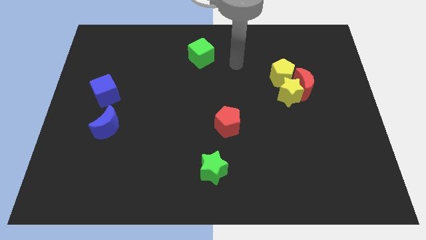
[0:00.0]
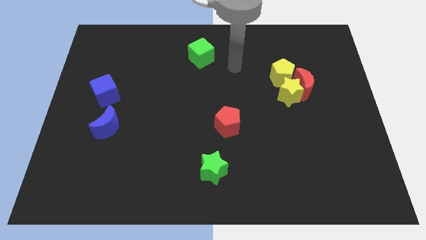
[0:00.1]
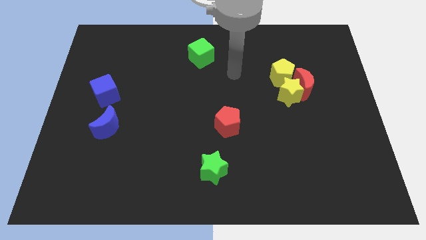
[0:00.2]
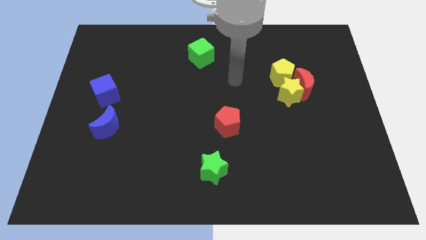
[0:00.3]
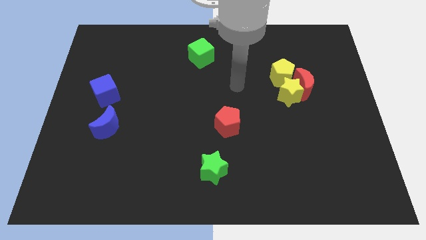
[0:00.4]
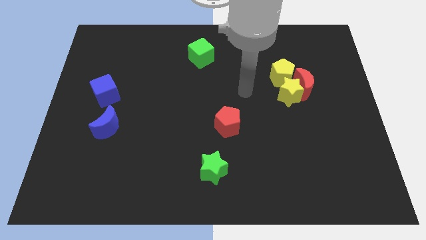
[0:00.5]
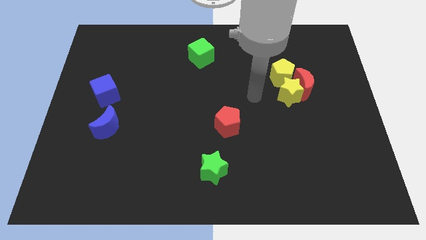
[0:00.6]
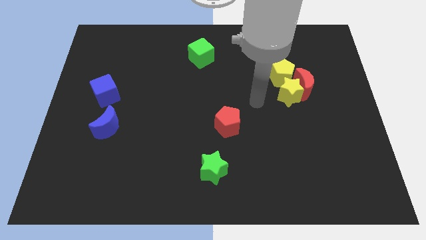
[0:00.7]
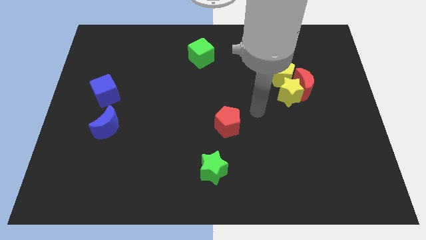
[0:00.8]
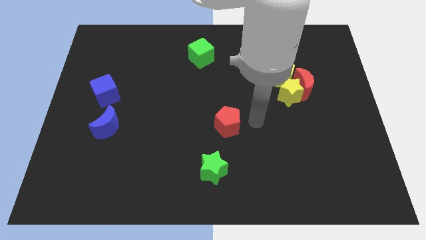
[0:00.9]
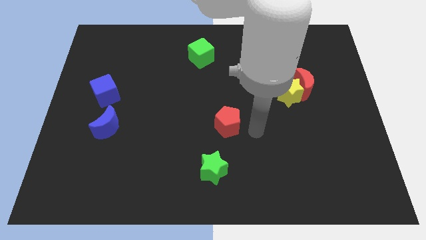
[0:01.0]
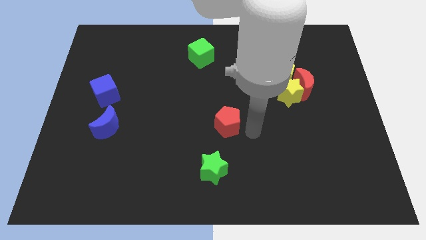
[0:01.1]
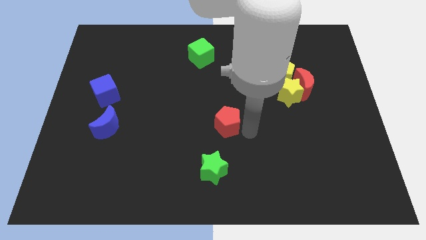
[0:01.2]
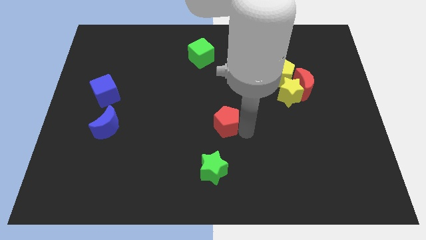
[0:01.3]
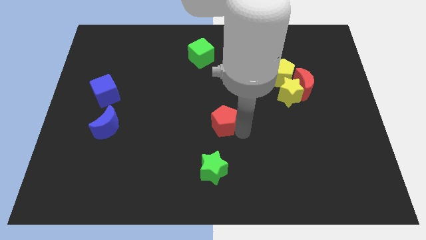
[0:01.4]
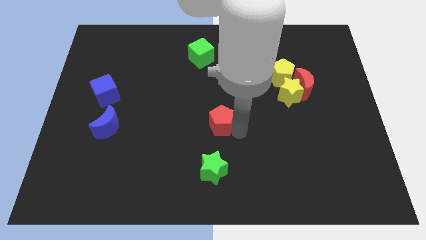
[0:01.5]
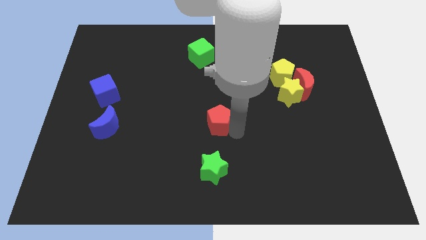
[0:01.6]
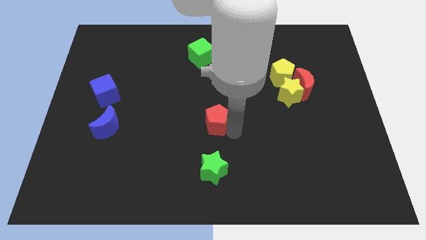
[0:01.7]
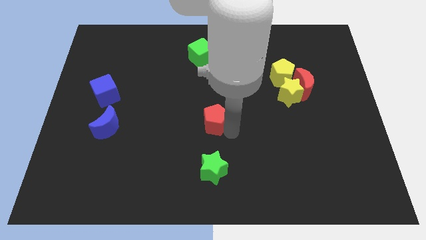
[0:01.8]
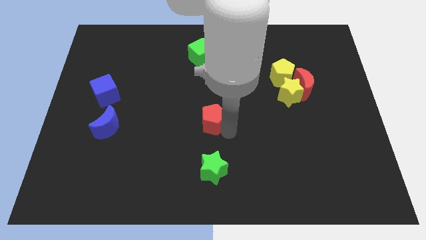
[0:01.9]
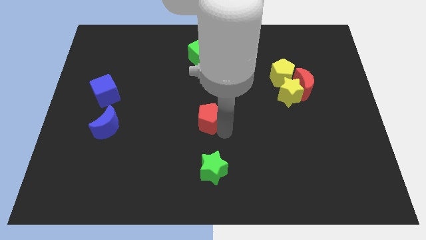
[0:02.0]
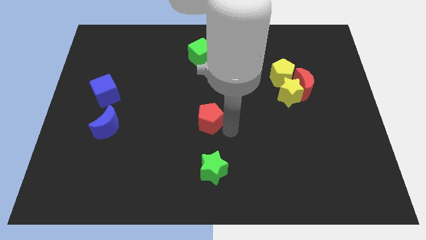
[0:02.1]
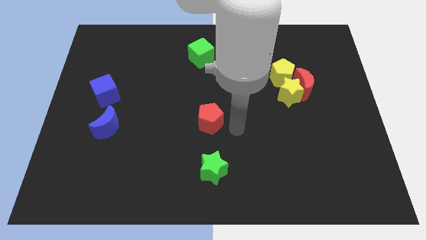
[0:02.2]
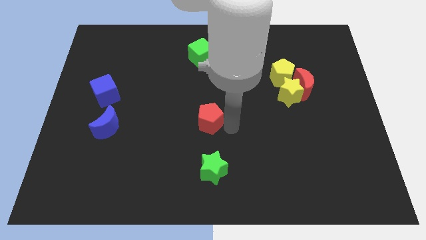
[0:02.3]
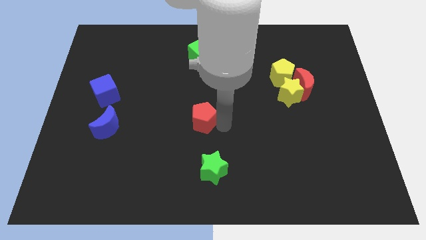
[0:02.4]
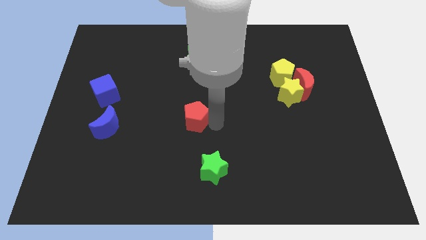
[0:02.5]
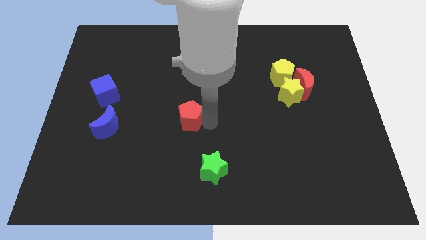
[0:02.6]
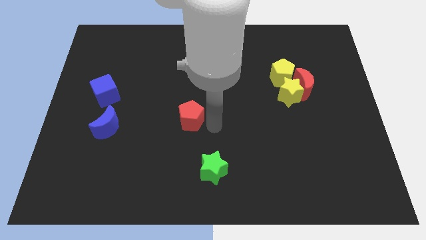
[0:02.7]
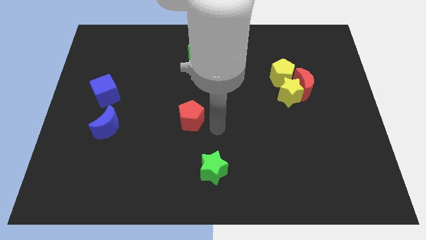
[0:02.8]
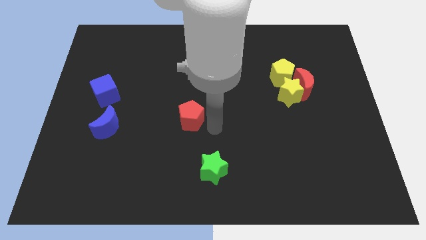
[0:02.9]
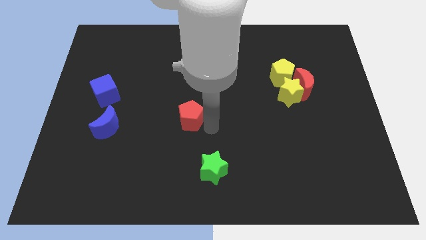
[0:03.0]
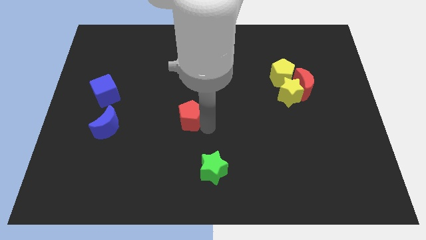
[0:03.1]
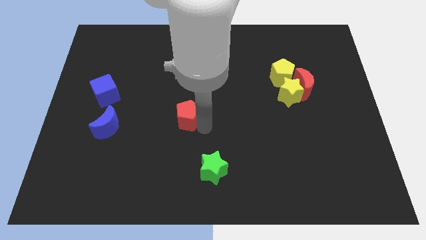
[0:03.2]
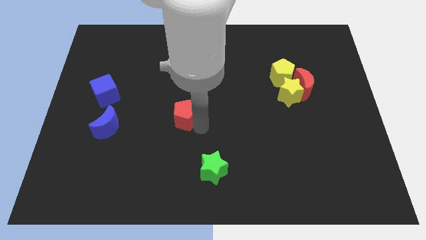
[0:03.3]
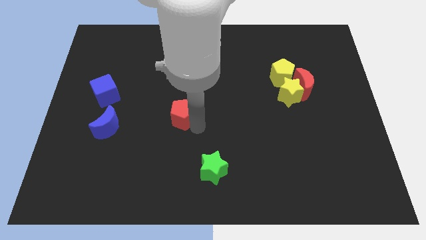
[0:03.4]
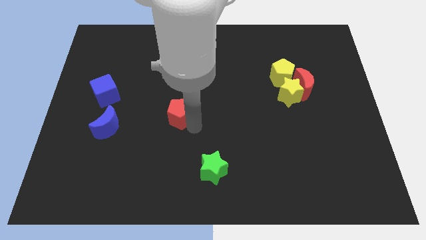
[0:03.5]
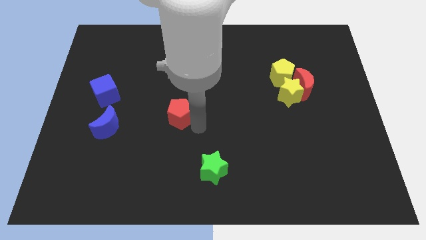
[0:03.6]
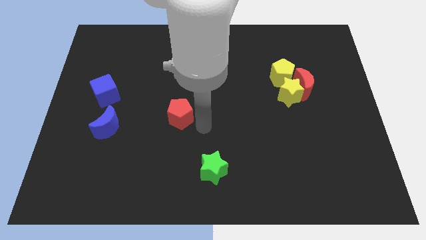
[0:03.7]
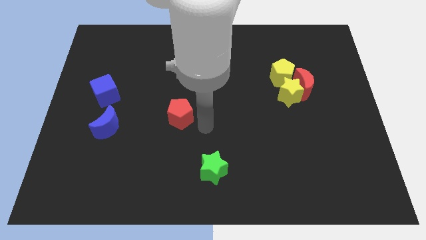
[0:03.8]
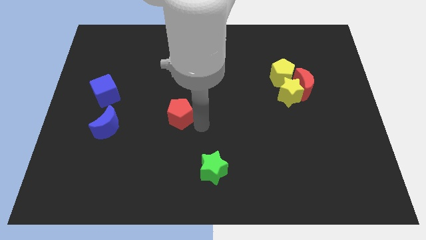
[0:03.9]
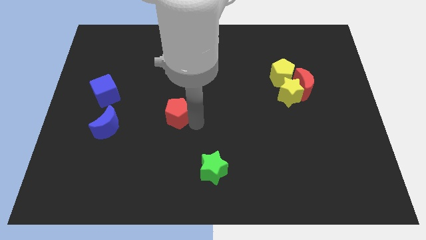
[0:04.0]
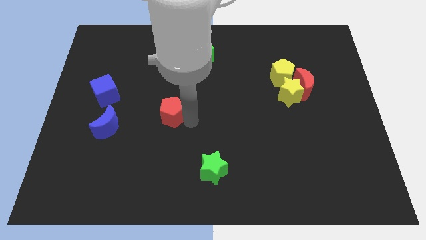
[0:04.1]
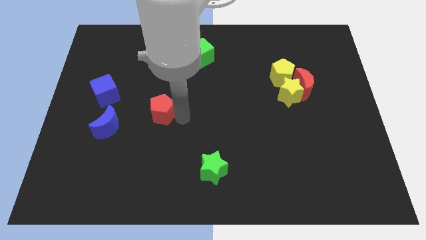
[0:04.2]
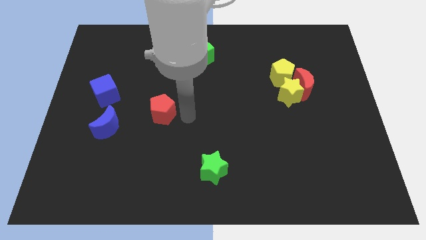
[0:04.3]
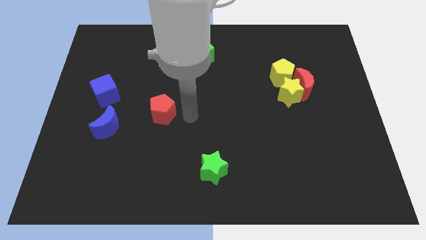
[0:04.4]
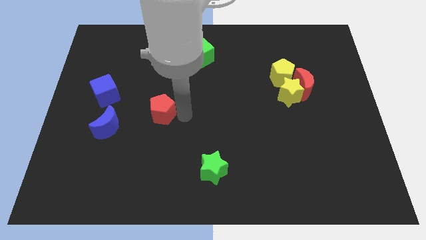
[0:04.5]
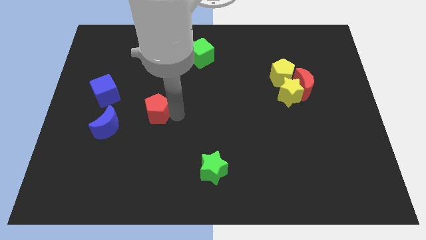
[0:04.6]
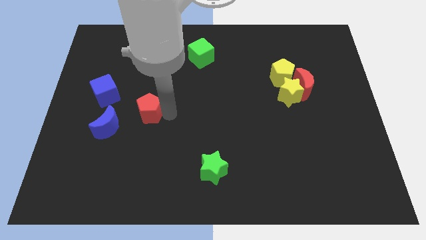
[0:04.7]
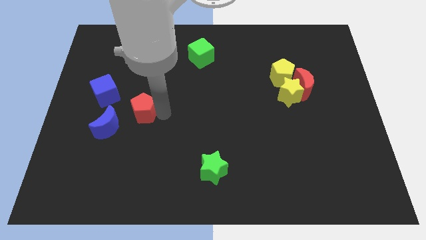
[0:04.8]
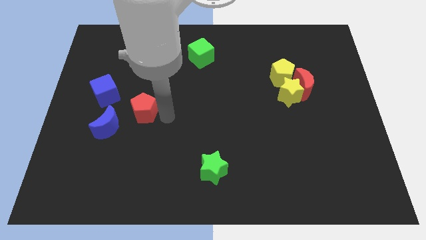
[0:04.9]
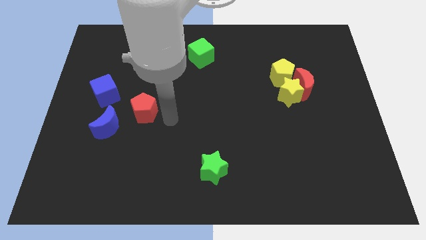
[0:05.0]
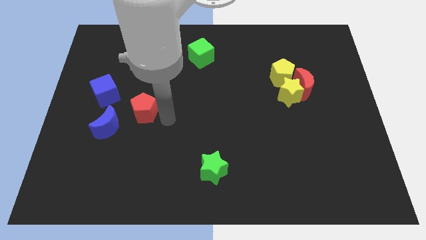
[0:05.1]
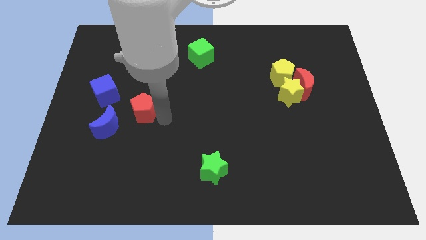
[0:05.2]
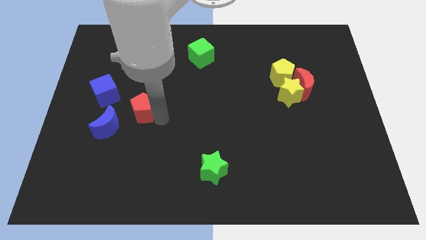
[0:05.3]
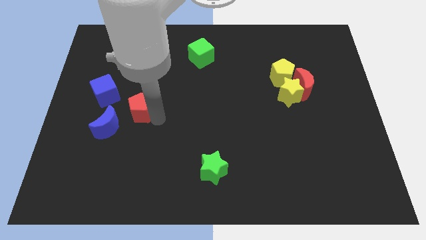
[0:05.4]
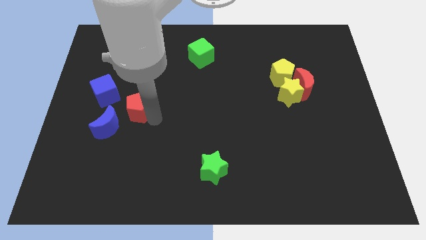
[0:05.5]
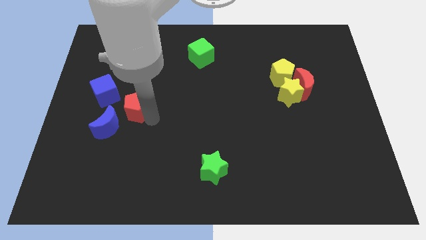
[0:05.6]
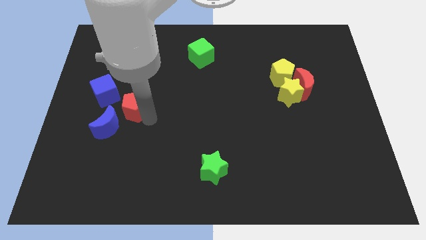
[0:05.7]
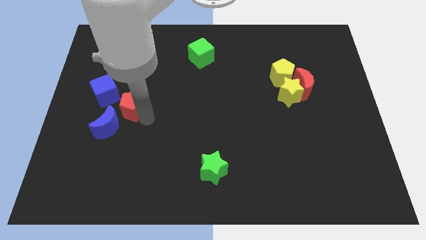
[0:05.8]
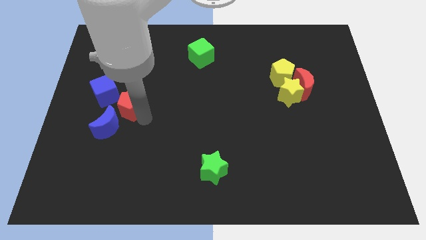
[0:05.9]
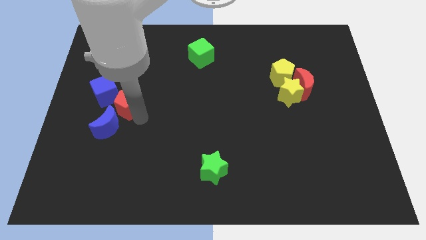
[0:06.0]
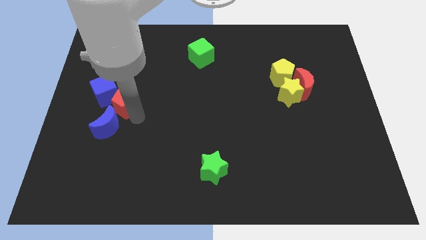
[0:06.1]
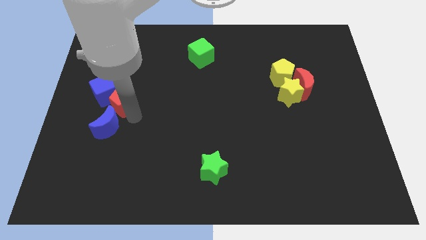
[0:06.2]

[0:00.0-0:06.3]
push the red pentagon close to the blue cube
